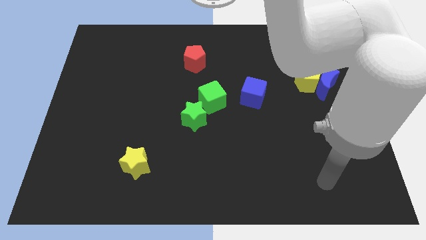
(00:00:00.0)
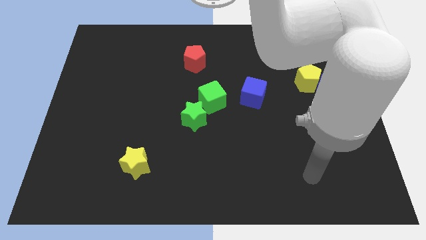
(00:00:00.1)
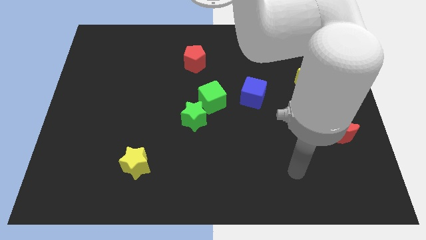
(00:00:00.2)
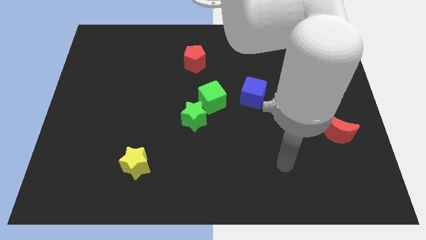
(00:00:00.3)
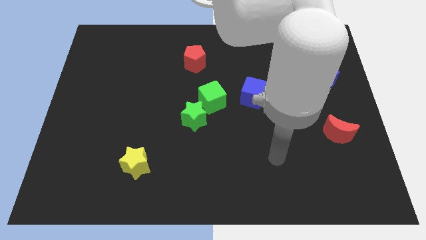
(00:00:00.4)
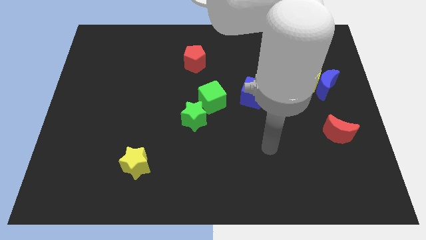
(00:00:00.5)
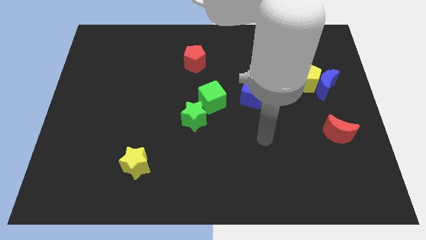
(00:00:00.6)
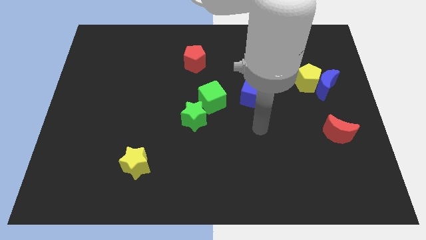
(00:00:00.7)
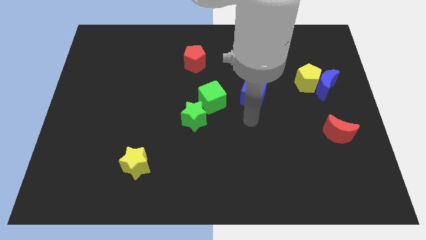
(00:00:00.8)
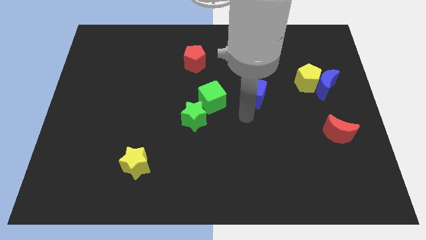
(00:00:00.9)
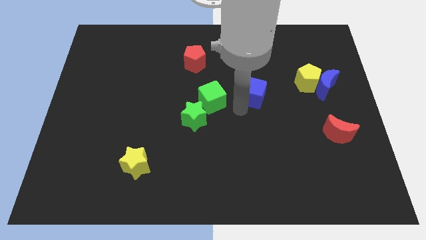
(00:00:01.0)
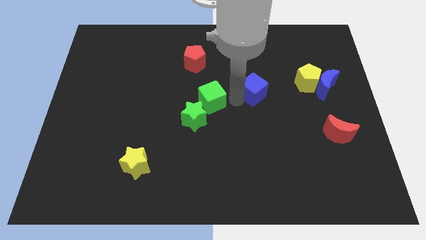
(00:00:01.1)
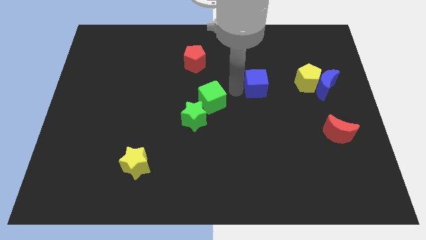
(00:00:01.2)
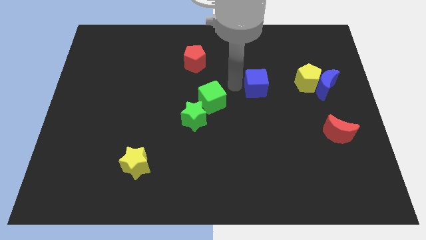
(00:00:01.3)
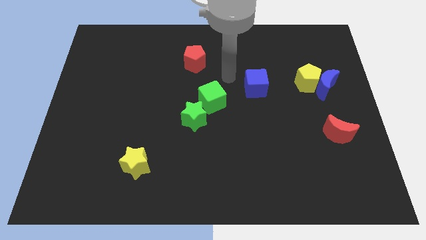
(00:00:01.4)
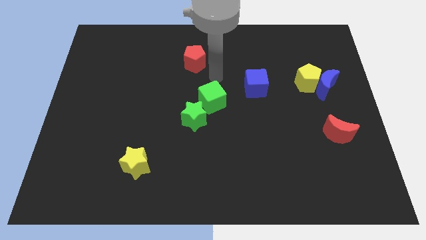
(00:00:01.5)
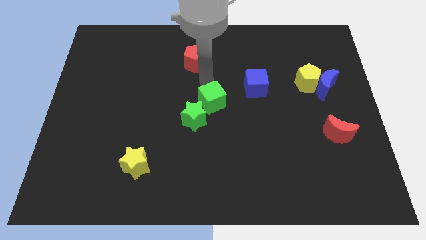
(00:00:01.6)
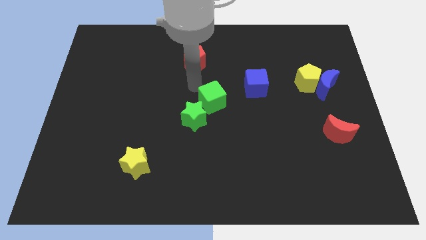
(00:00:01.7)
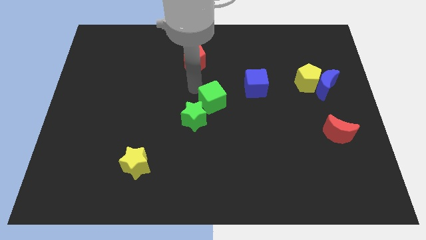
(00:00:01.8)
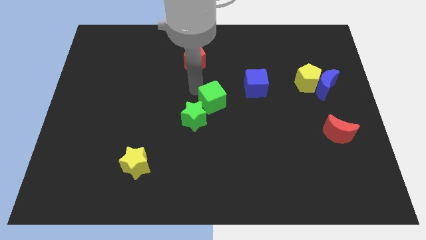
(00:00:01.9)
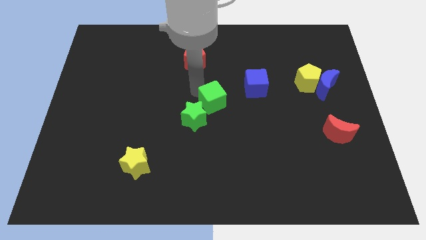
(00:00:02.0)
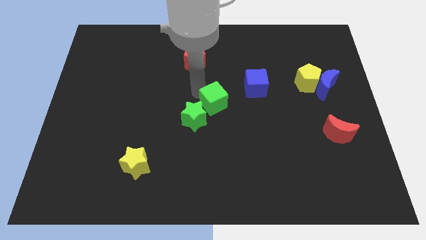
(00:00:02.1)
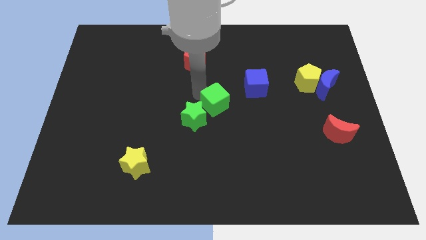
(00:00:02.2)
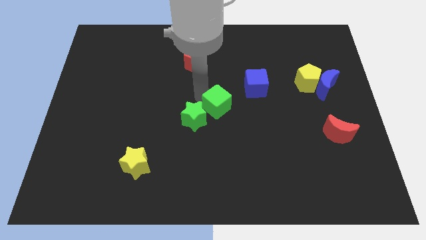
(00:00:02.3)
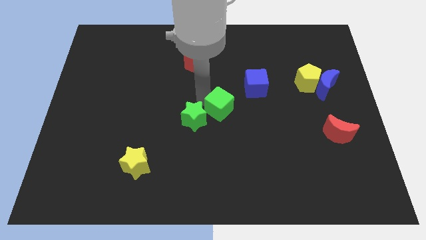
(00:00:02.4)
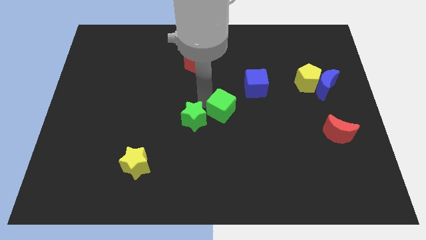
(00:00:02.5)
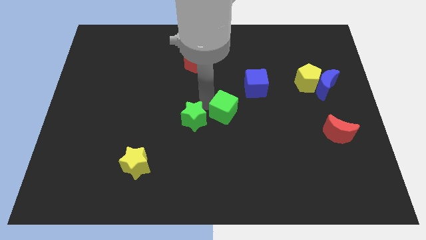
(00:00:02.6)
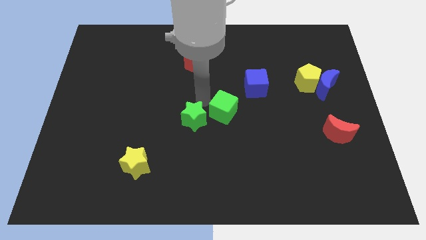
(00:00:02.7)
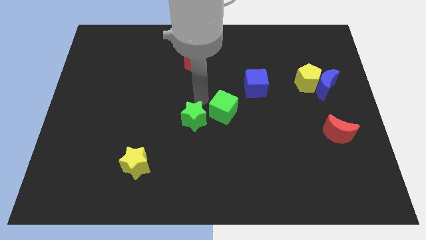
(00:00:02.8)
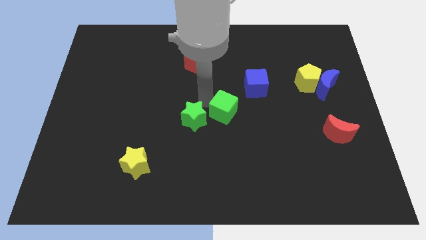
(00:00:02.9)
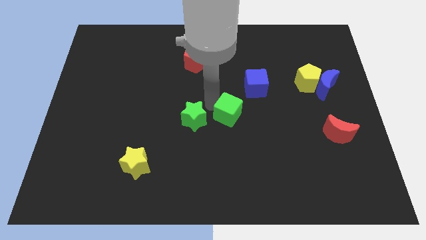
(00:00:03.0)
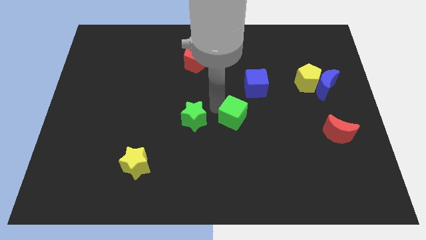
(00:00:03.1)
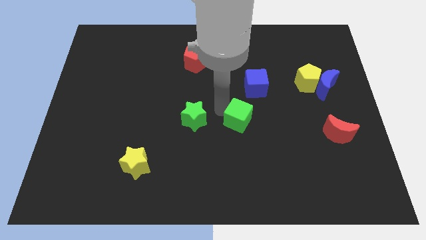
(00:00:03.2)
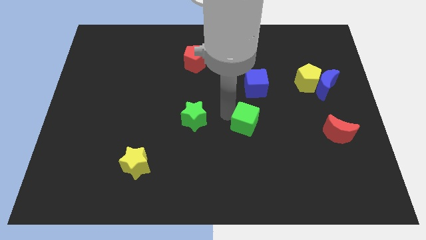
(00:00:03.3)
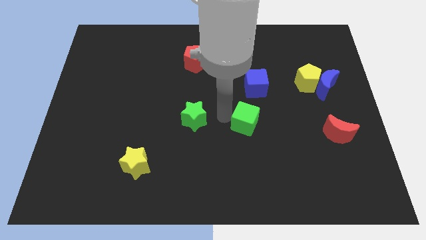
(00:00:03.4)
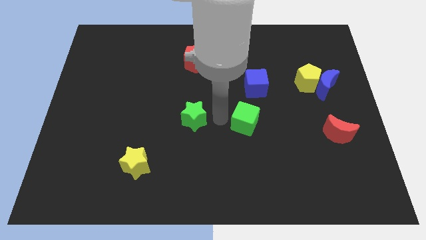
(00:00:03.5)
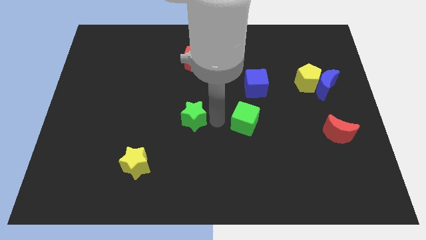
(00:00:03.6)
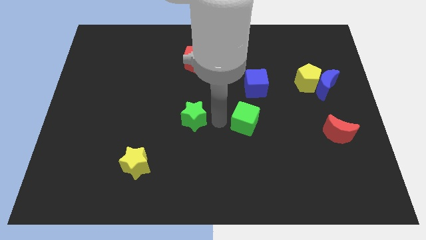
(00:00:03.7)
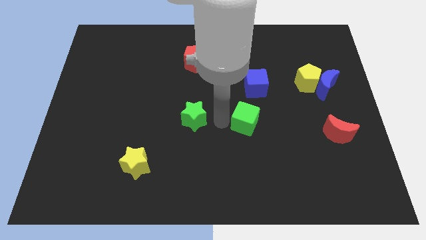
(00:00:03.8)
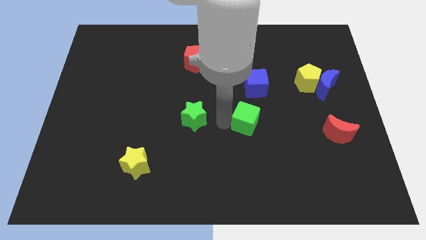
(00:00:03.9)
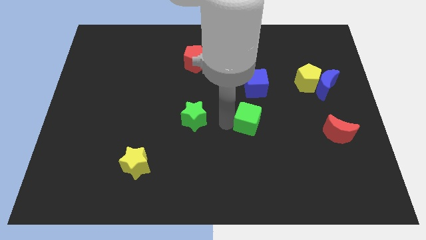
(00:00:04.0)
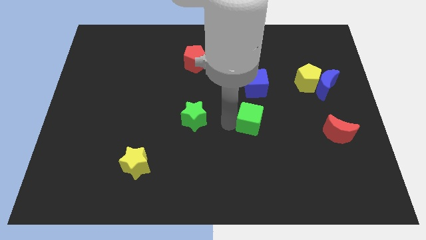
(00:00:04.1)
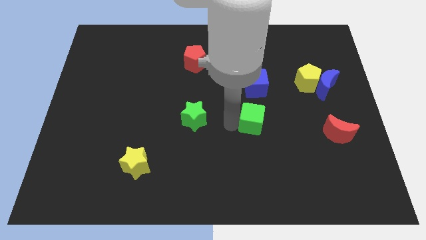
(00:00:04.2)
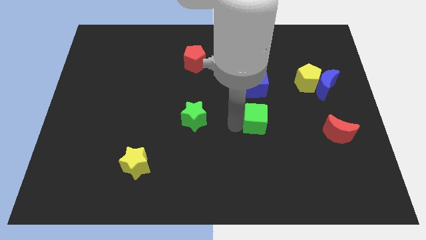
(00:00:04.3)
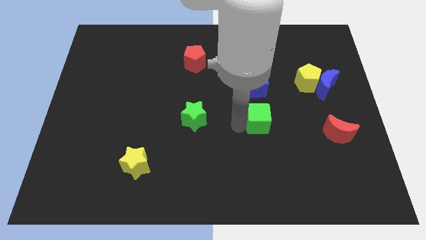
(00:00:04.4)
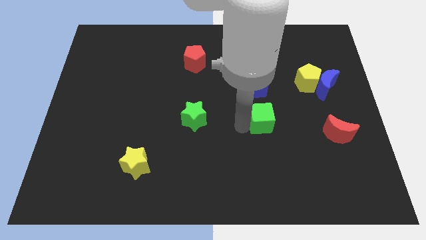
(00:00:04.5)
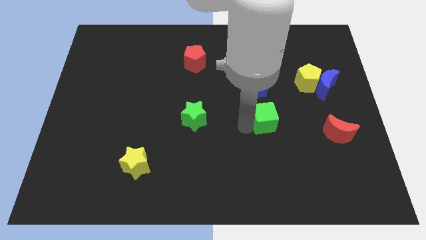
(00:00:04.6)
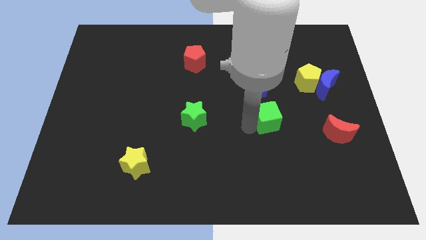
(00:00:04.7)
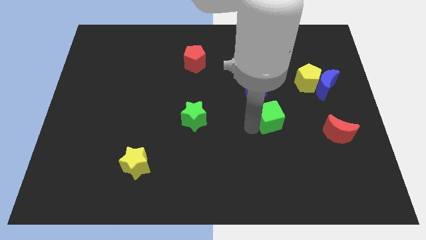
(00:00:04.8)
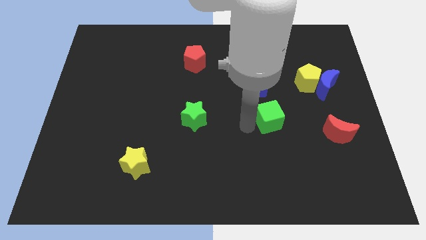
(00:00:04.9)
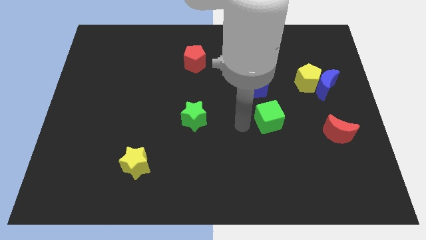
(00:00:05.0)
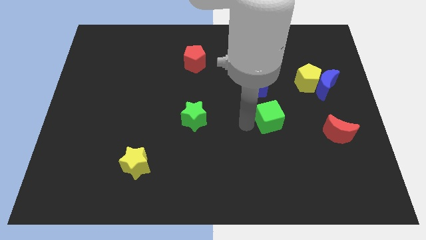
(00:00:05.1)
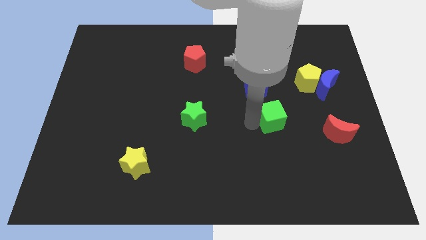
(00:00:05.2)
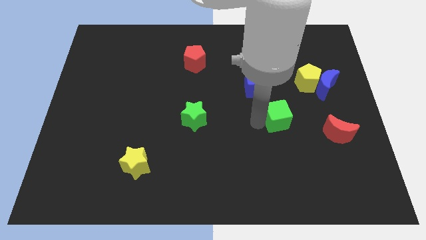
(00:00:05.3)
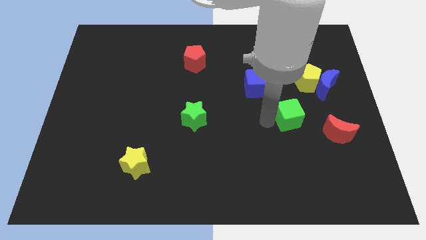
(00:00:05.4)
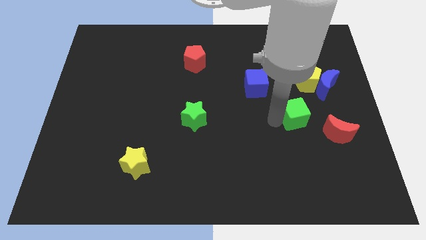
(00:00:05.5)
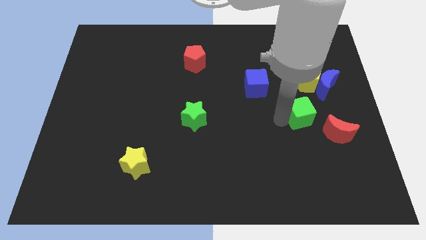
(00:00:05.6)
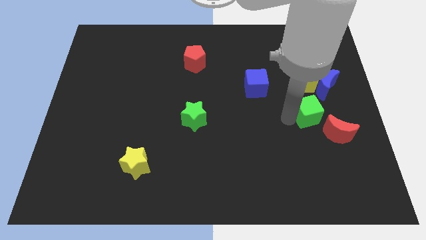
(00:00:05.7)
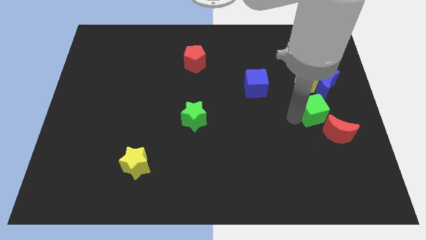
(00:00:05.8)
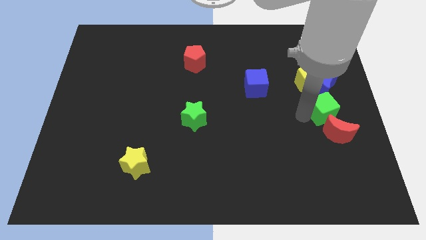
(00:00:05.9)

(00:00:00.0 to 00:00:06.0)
push the green cube to the right side

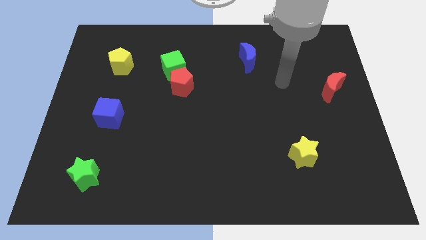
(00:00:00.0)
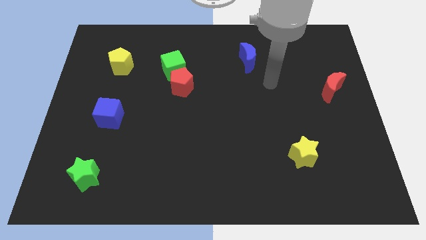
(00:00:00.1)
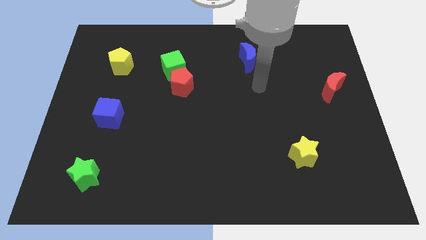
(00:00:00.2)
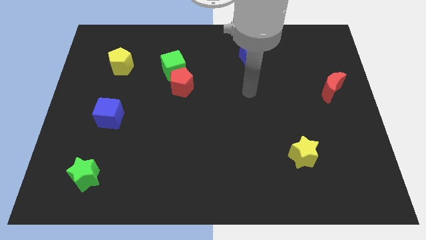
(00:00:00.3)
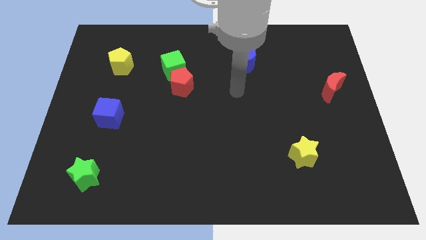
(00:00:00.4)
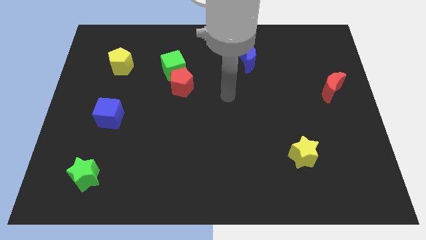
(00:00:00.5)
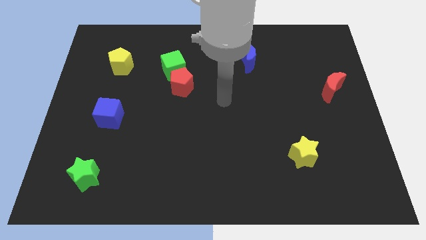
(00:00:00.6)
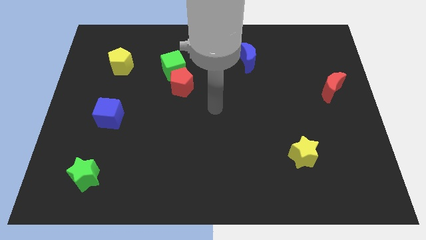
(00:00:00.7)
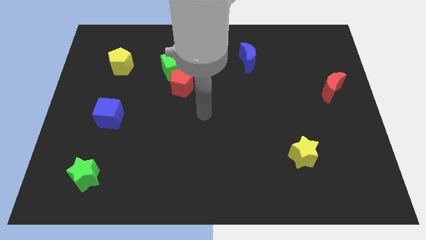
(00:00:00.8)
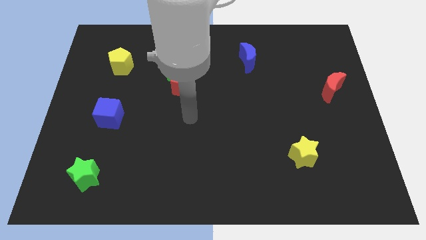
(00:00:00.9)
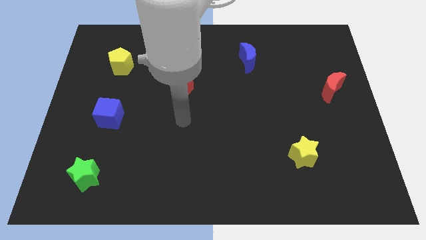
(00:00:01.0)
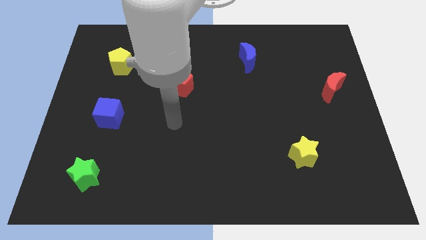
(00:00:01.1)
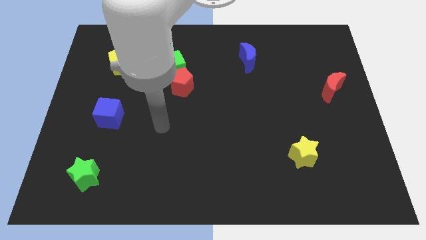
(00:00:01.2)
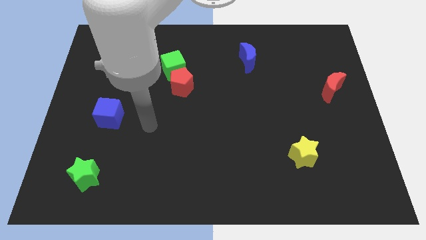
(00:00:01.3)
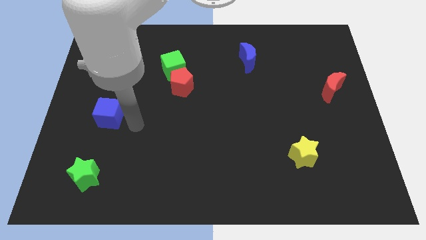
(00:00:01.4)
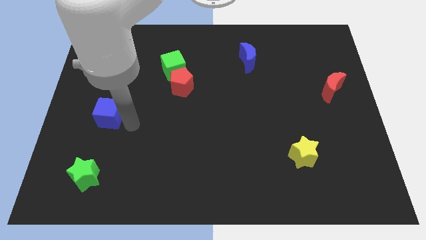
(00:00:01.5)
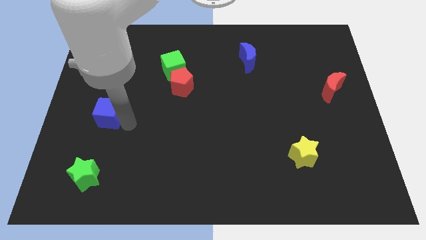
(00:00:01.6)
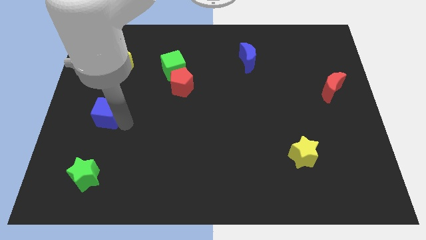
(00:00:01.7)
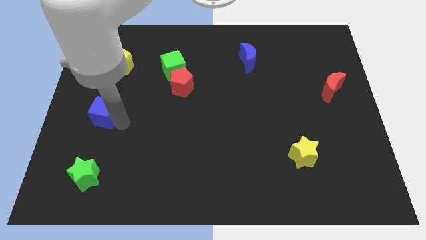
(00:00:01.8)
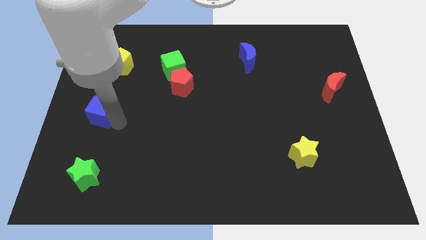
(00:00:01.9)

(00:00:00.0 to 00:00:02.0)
push the blue cube to the left side of the board
